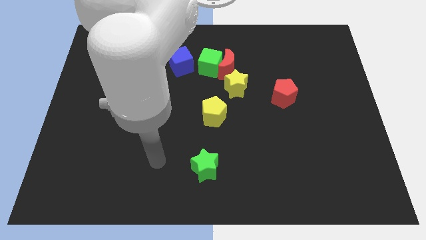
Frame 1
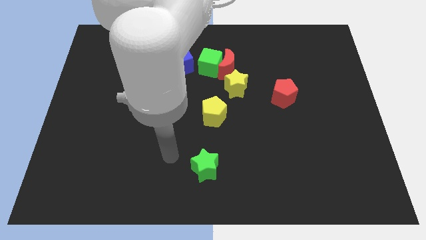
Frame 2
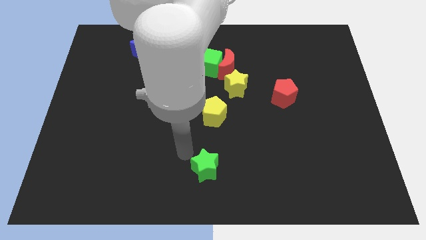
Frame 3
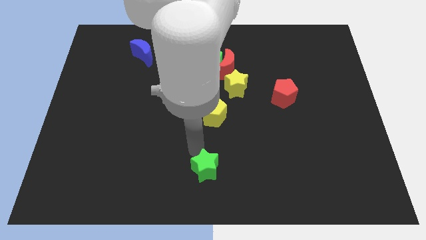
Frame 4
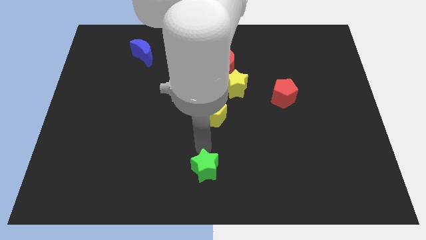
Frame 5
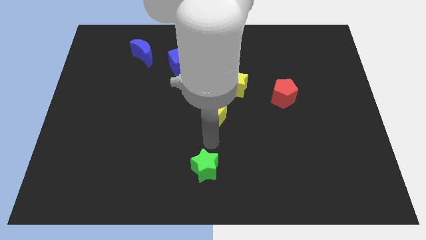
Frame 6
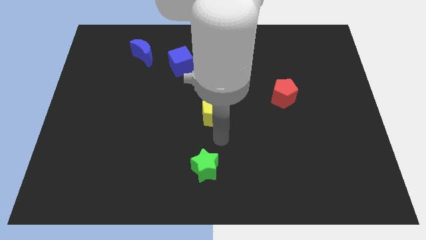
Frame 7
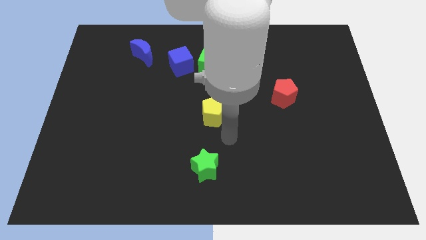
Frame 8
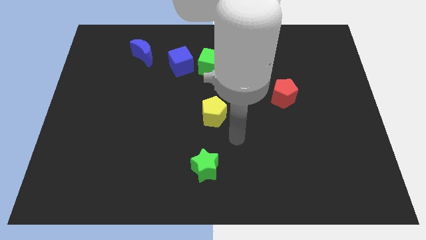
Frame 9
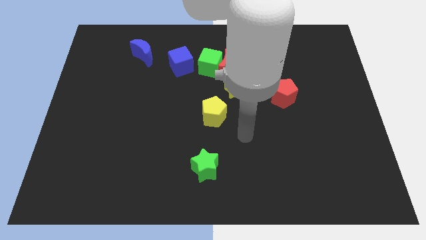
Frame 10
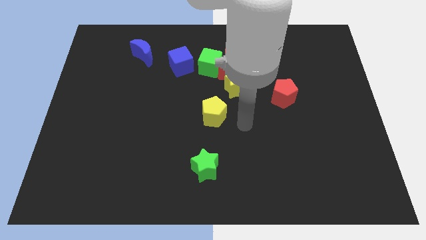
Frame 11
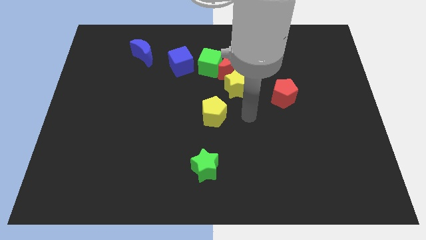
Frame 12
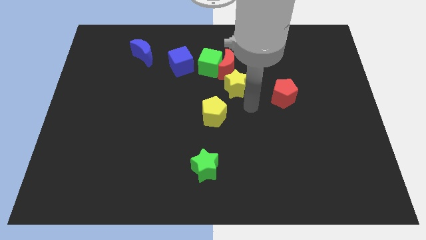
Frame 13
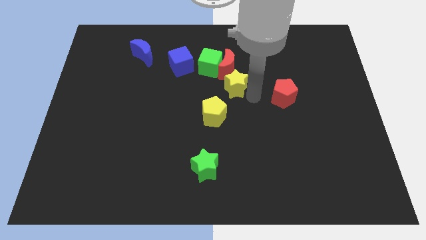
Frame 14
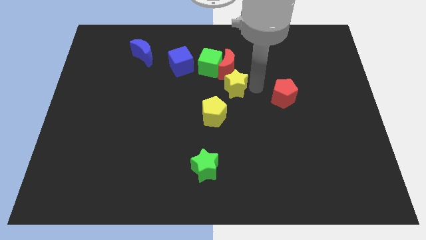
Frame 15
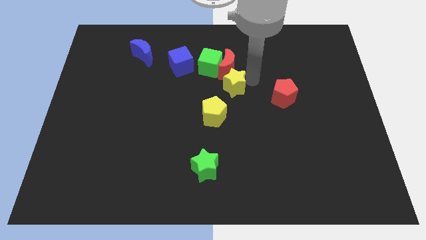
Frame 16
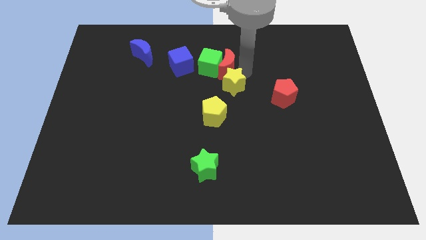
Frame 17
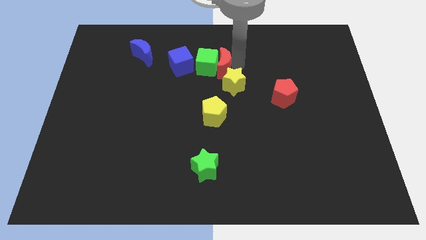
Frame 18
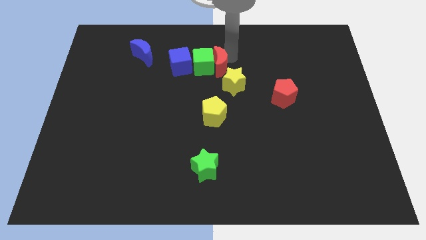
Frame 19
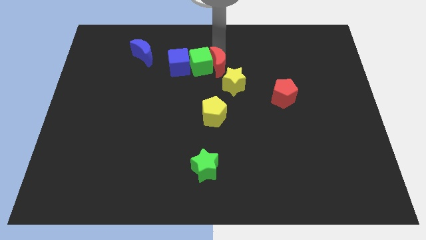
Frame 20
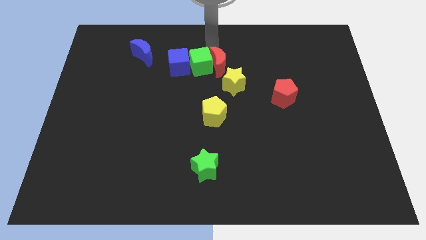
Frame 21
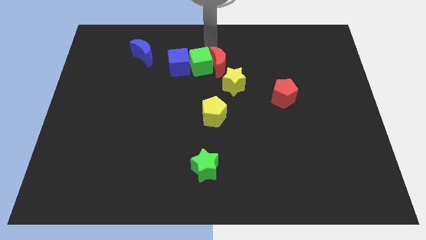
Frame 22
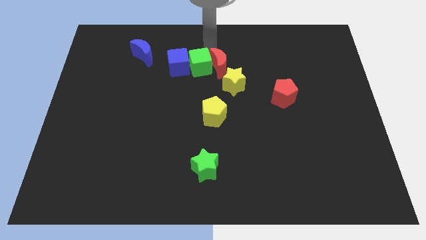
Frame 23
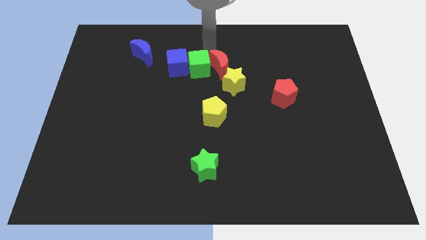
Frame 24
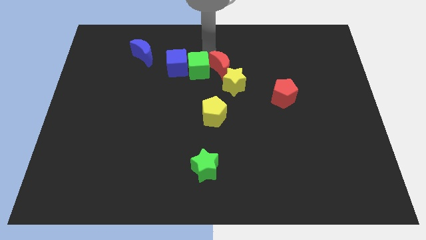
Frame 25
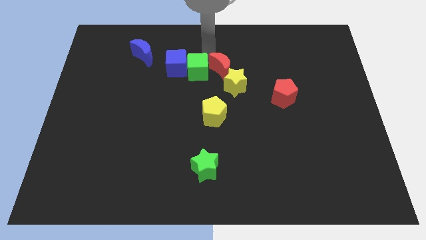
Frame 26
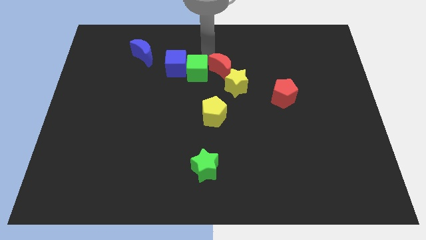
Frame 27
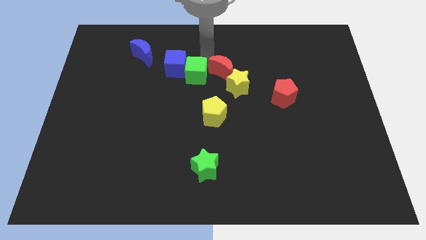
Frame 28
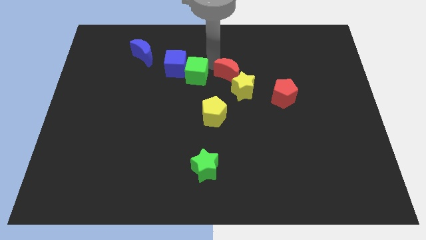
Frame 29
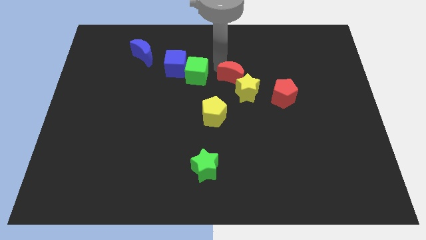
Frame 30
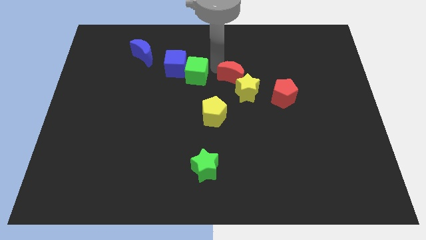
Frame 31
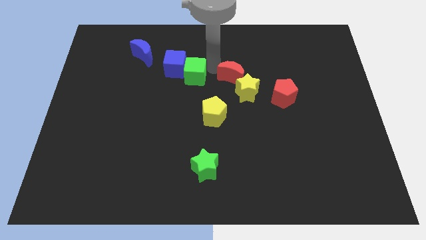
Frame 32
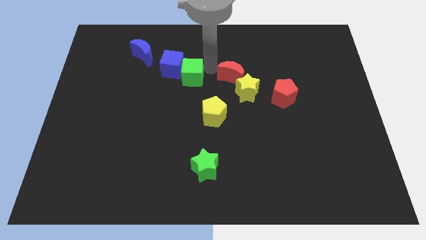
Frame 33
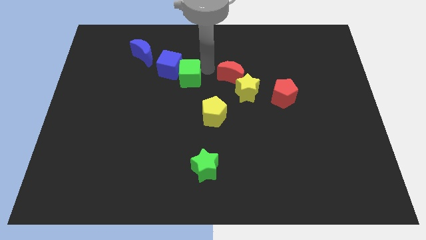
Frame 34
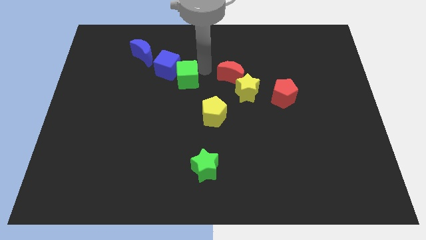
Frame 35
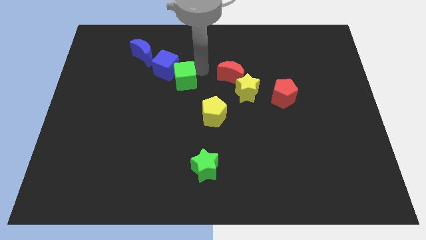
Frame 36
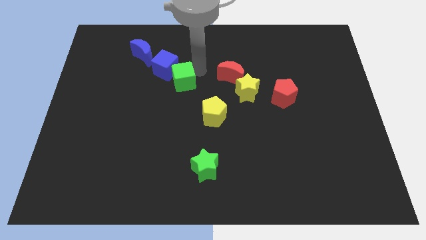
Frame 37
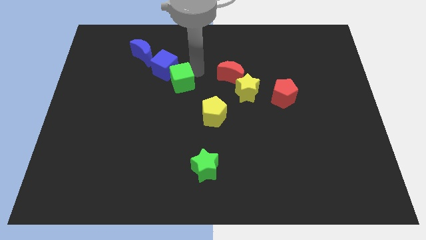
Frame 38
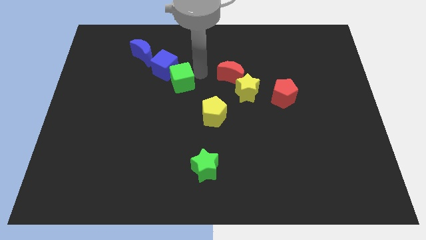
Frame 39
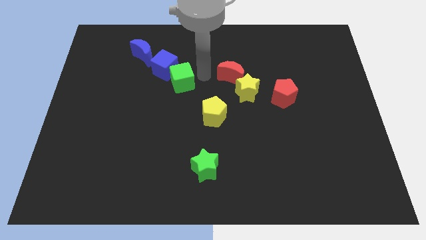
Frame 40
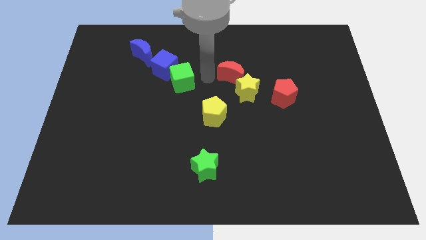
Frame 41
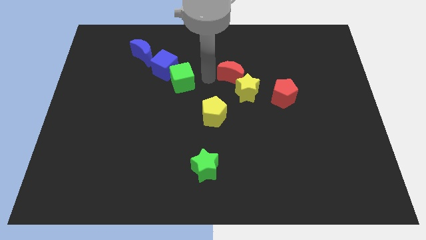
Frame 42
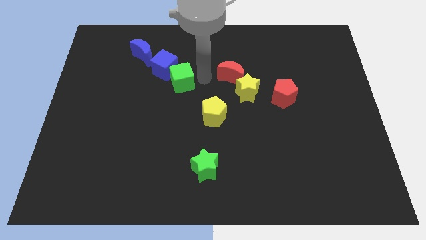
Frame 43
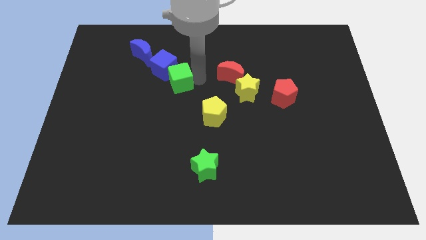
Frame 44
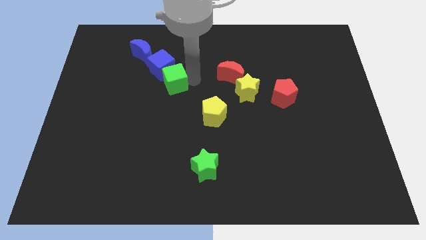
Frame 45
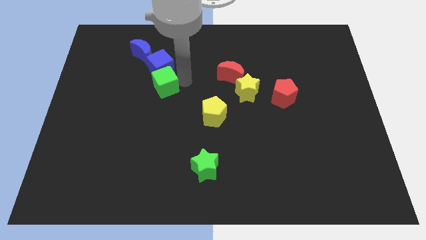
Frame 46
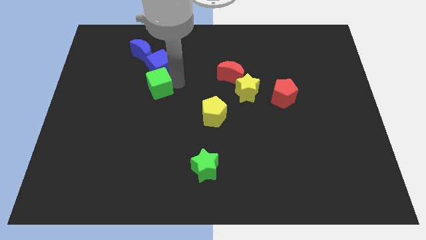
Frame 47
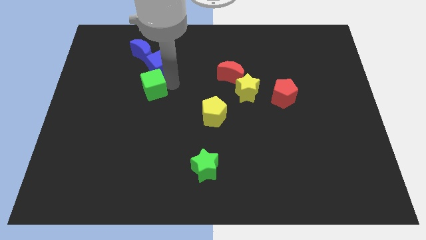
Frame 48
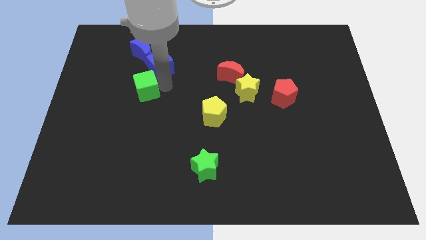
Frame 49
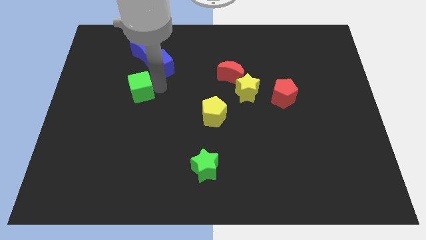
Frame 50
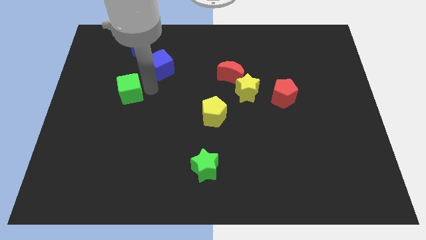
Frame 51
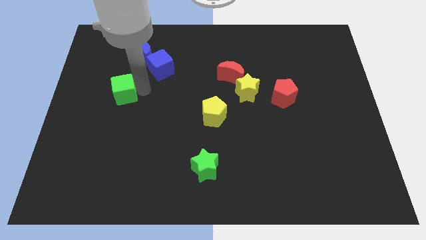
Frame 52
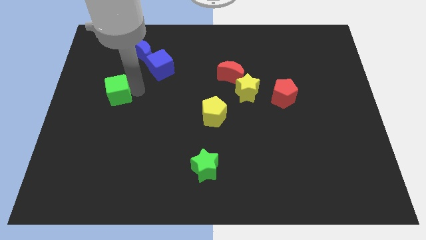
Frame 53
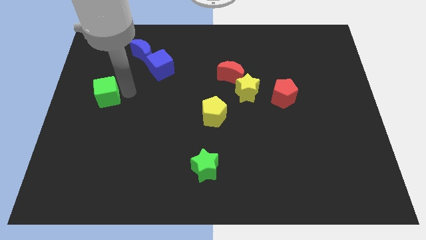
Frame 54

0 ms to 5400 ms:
put the green cube to the left side

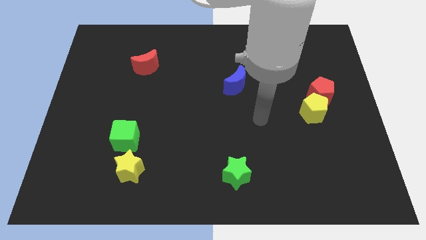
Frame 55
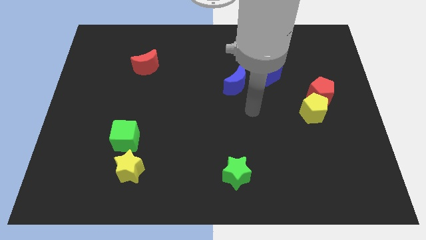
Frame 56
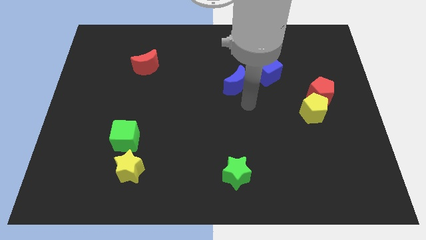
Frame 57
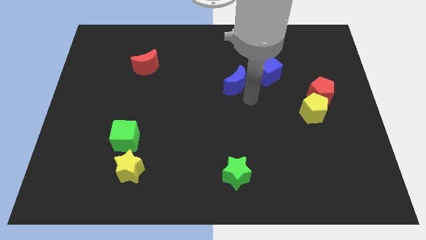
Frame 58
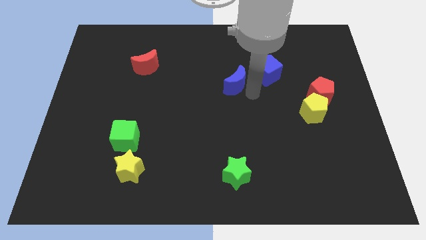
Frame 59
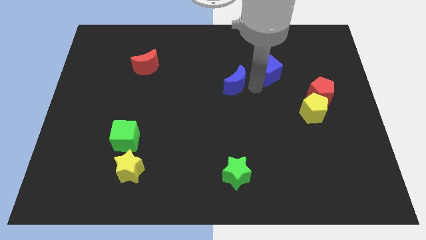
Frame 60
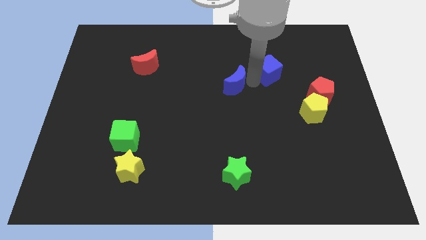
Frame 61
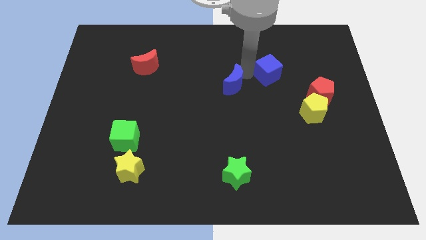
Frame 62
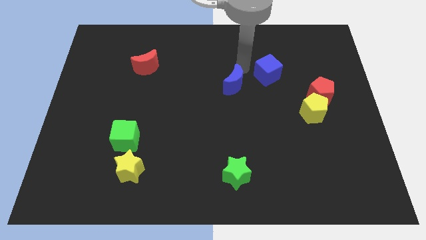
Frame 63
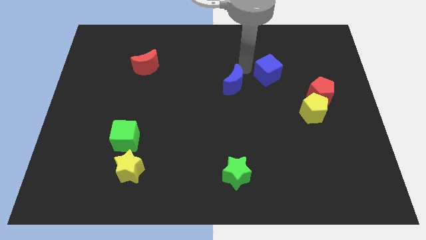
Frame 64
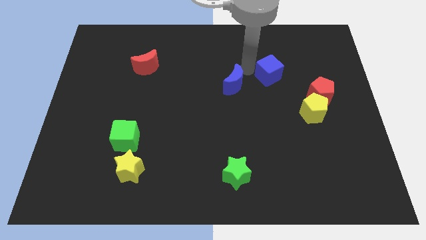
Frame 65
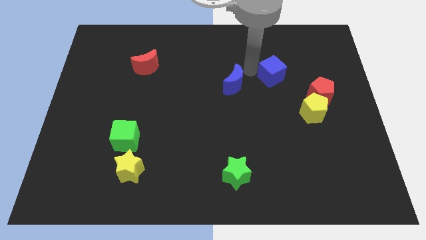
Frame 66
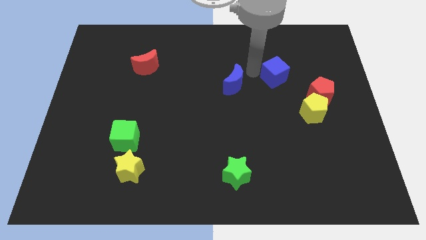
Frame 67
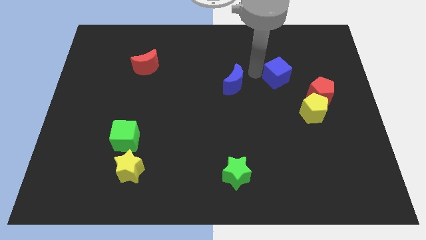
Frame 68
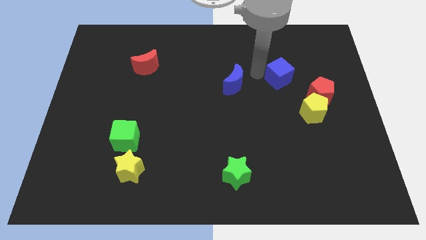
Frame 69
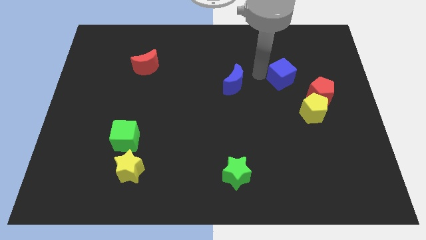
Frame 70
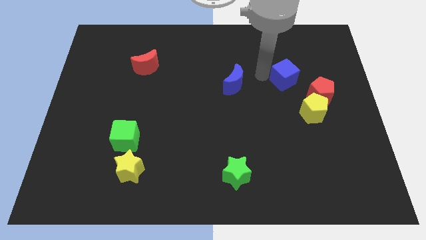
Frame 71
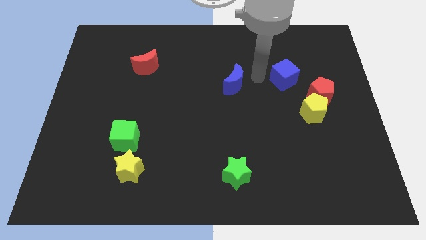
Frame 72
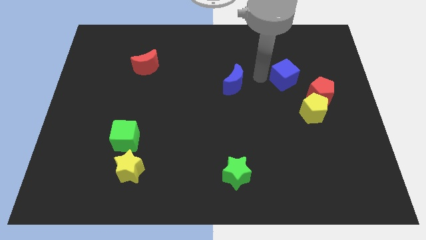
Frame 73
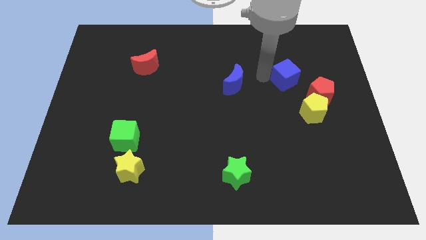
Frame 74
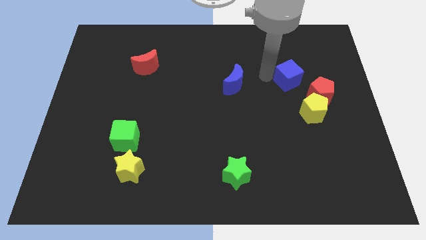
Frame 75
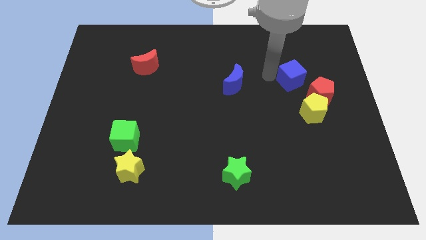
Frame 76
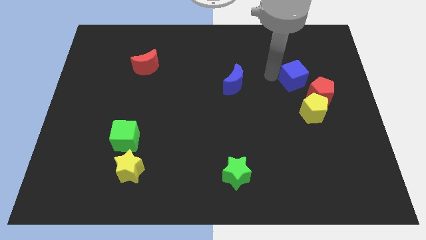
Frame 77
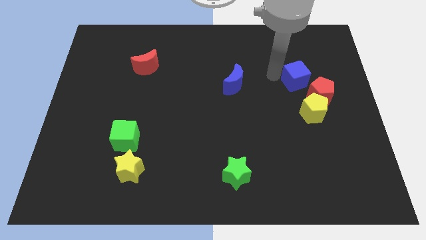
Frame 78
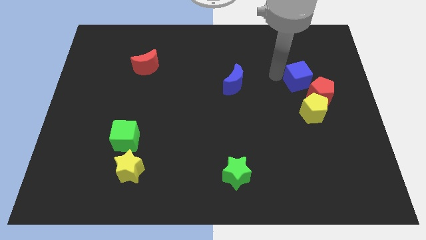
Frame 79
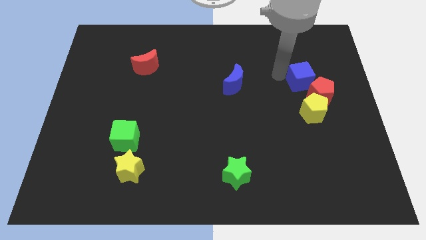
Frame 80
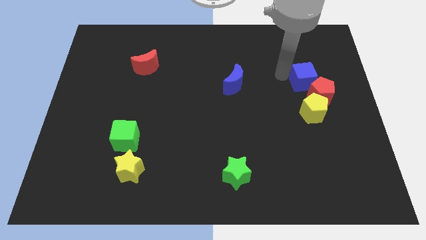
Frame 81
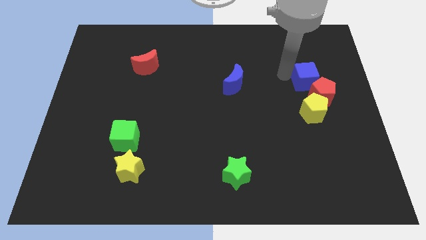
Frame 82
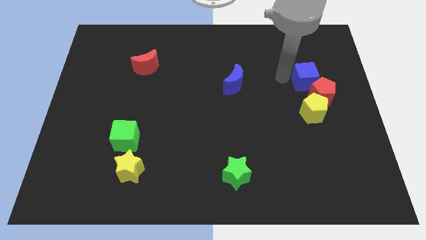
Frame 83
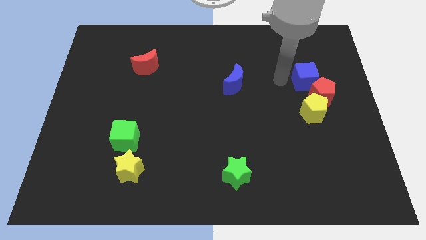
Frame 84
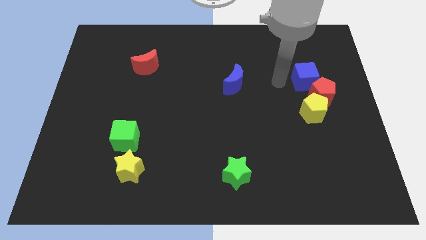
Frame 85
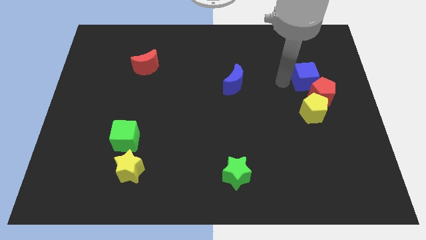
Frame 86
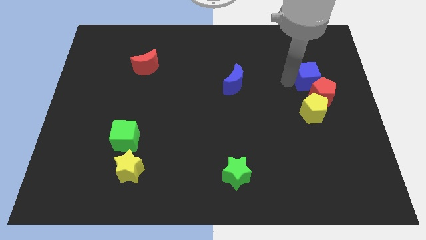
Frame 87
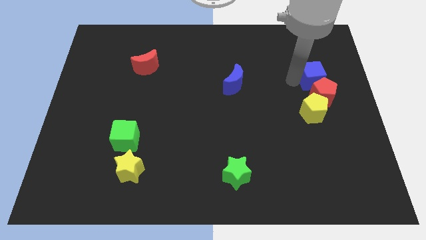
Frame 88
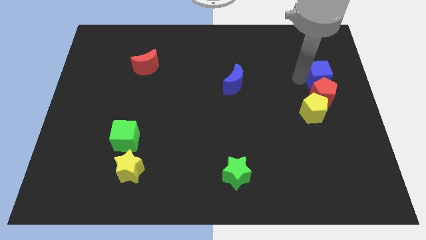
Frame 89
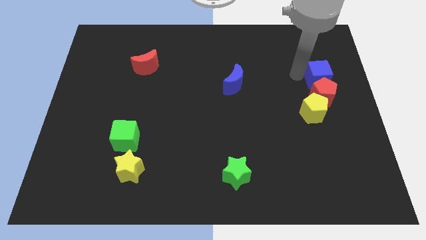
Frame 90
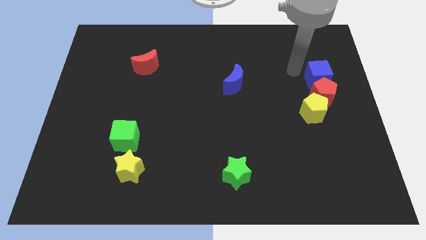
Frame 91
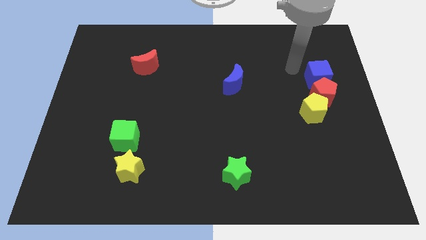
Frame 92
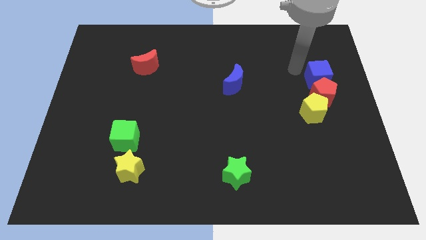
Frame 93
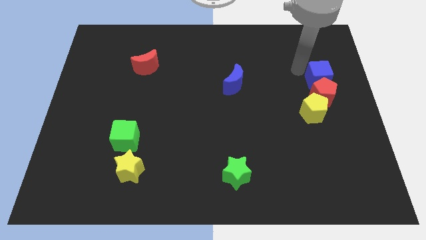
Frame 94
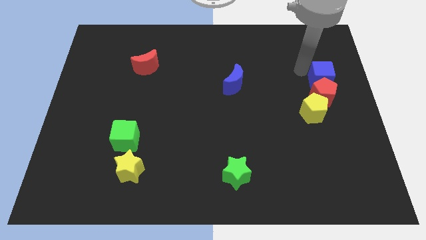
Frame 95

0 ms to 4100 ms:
push the blue cube to the right side
